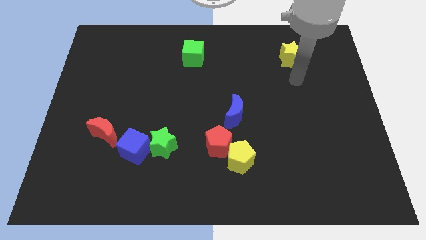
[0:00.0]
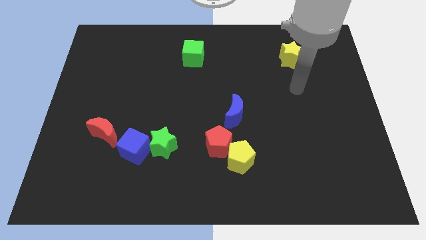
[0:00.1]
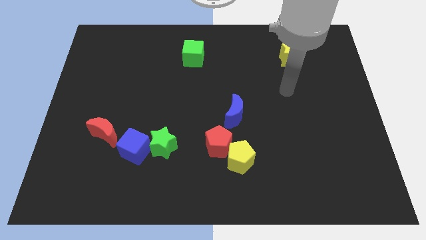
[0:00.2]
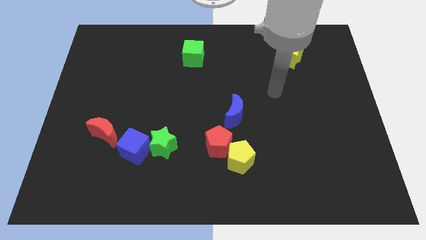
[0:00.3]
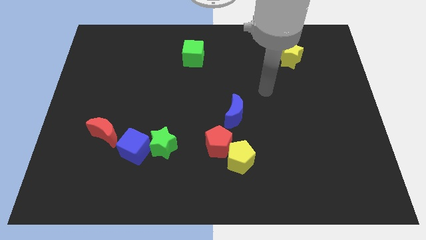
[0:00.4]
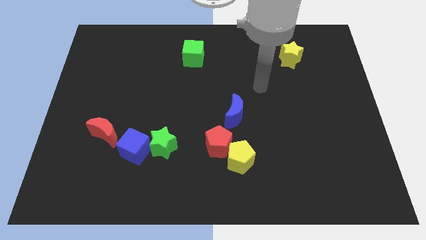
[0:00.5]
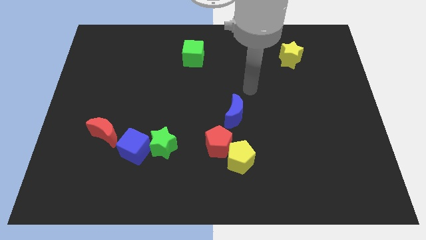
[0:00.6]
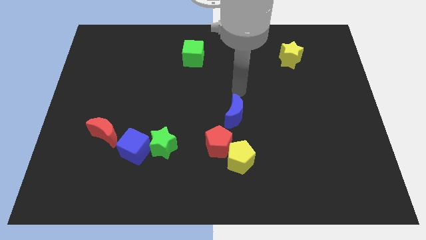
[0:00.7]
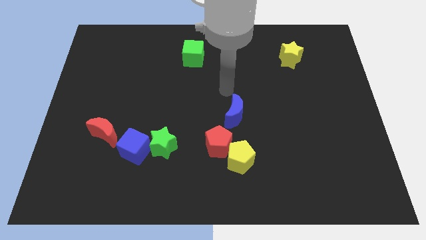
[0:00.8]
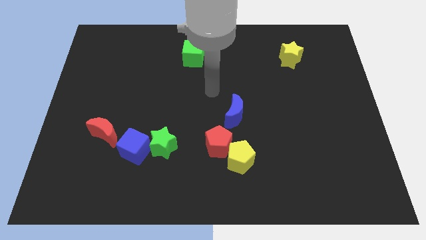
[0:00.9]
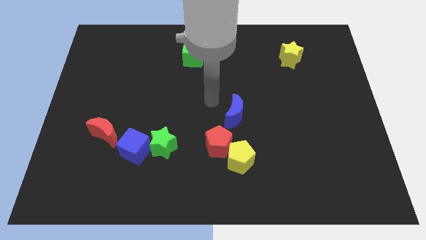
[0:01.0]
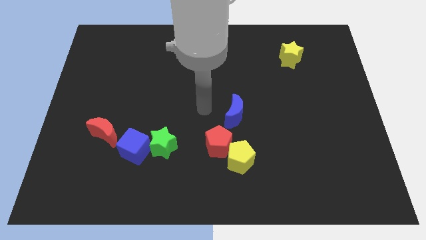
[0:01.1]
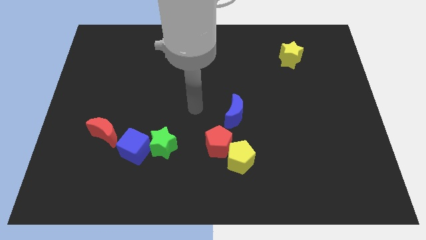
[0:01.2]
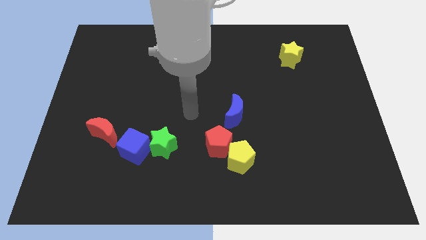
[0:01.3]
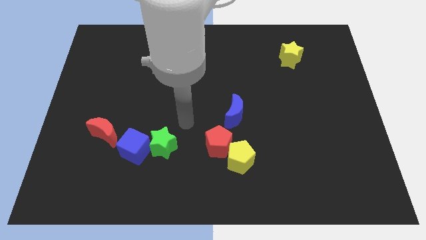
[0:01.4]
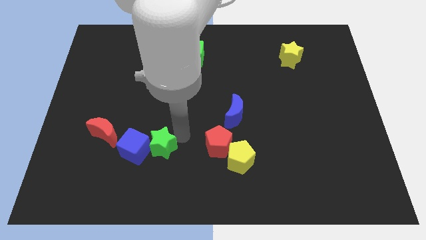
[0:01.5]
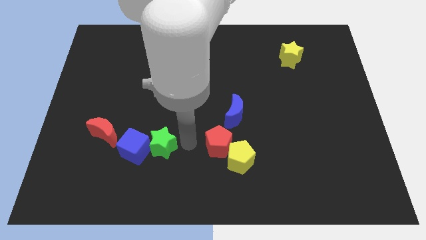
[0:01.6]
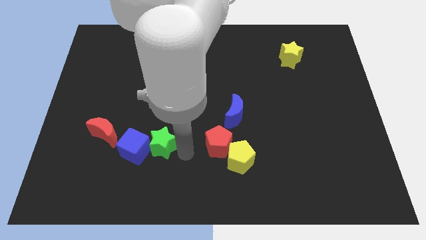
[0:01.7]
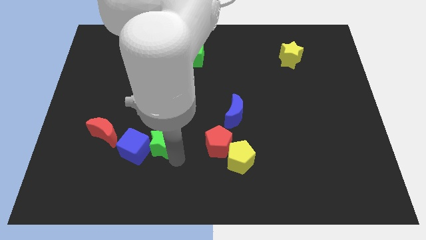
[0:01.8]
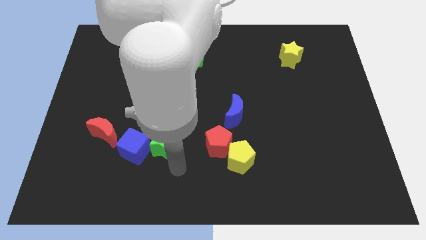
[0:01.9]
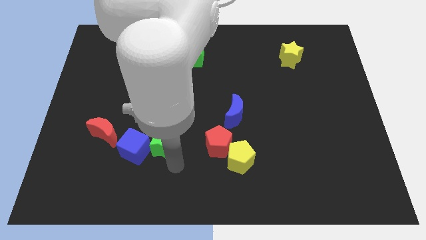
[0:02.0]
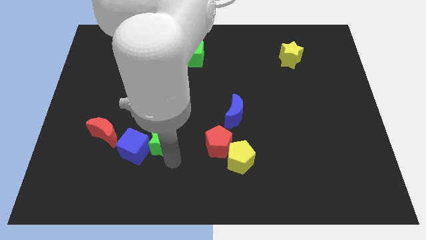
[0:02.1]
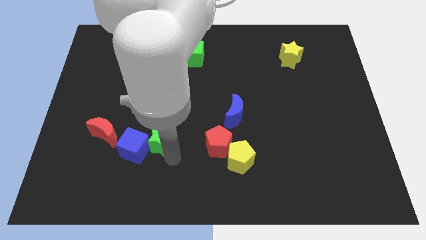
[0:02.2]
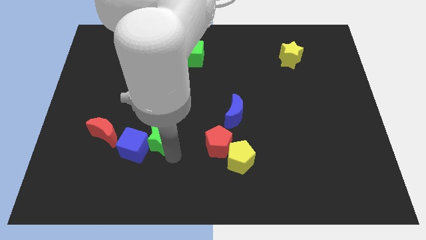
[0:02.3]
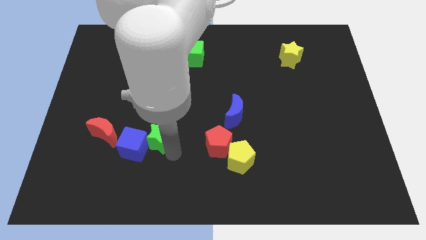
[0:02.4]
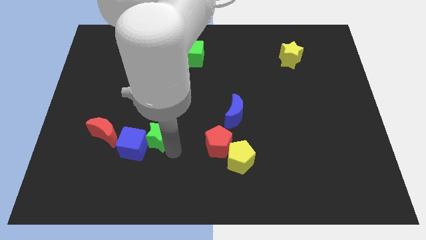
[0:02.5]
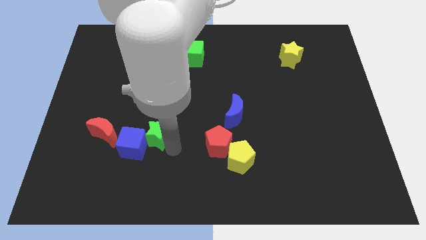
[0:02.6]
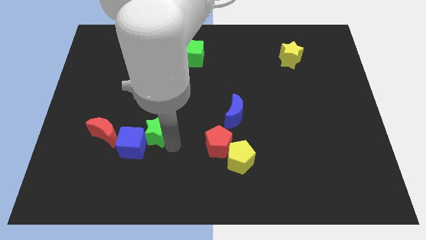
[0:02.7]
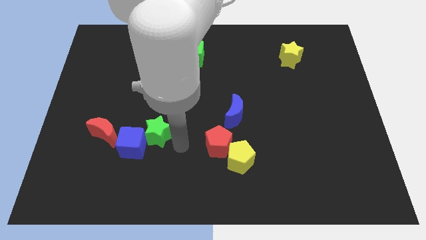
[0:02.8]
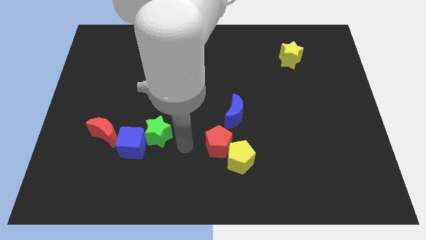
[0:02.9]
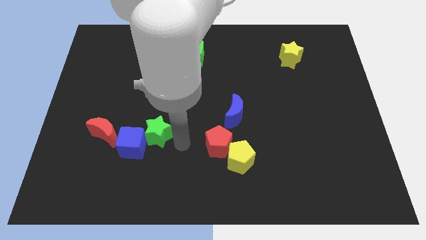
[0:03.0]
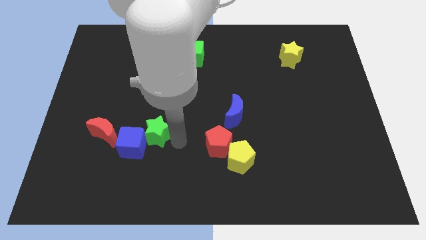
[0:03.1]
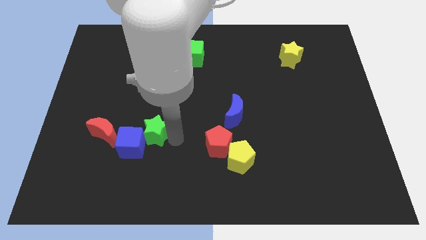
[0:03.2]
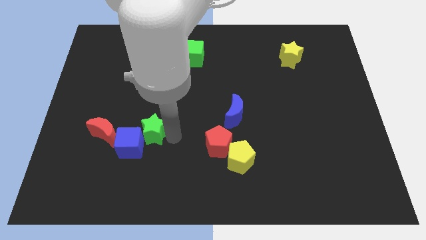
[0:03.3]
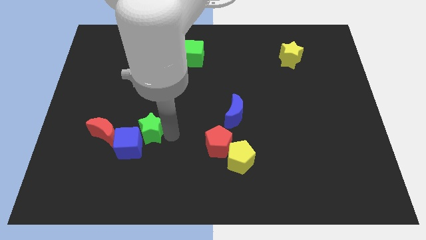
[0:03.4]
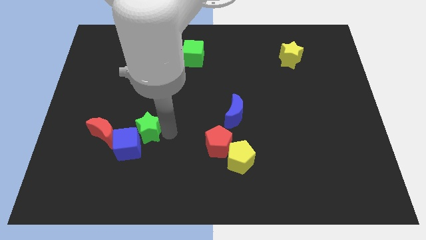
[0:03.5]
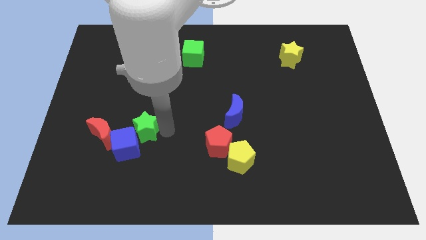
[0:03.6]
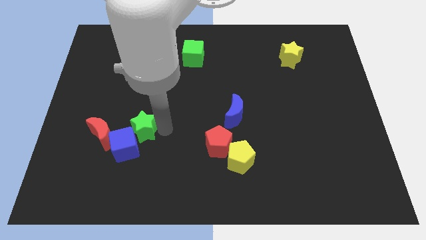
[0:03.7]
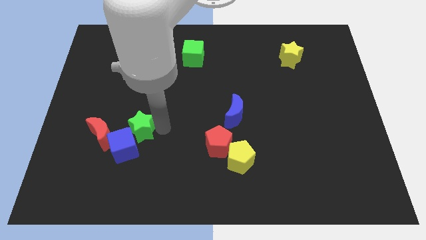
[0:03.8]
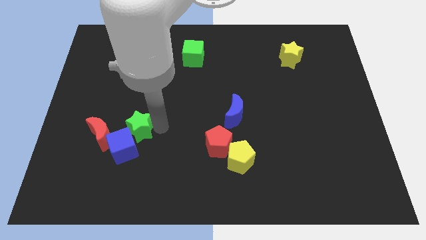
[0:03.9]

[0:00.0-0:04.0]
slightly slide the green star up and left

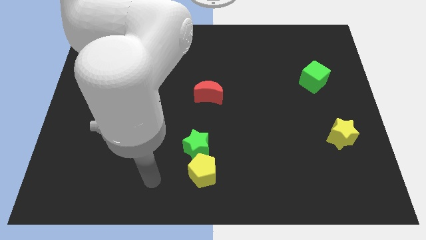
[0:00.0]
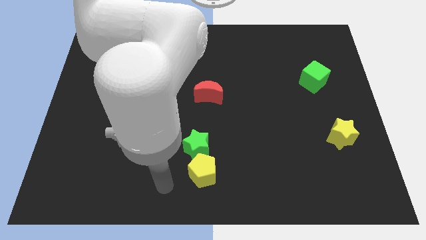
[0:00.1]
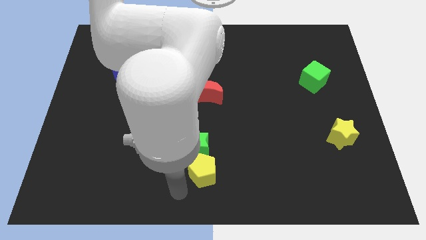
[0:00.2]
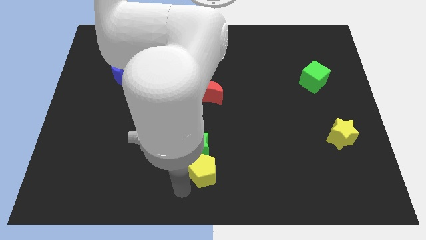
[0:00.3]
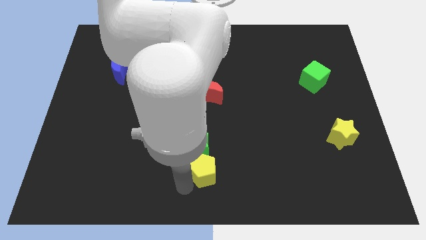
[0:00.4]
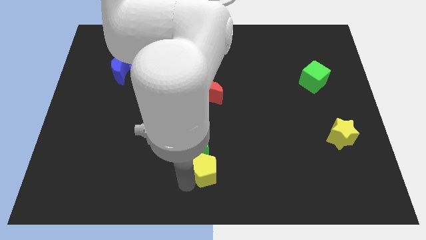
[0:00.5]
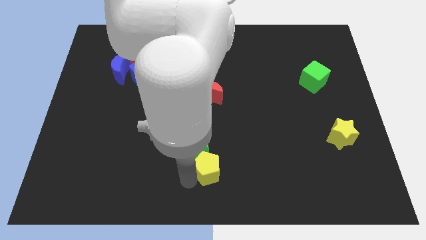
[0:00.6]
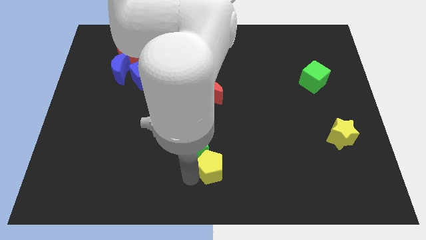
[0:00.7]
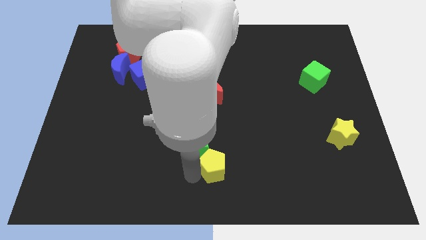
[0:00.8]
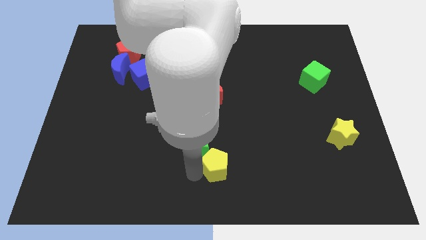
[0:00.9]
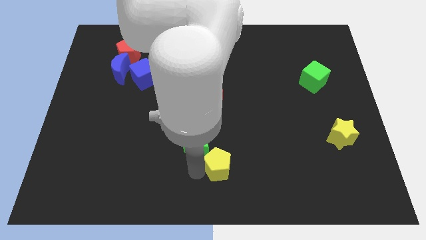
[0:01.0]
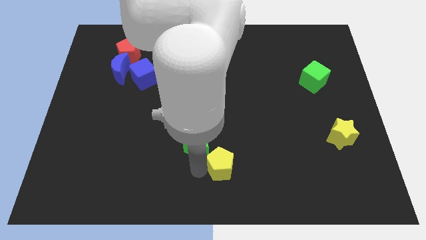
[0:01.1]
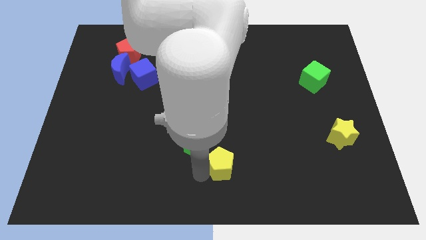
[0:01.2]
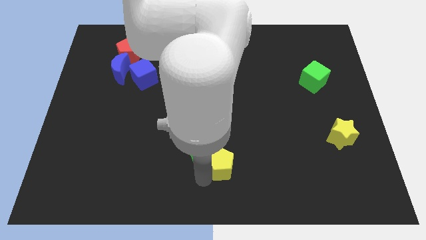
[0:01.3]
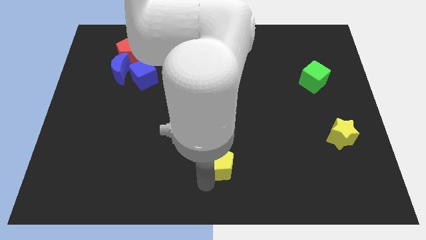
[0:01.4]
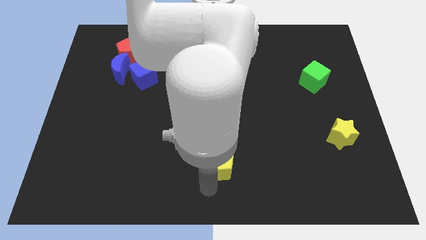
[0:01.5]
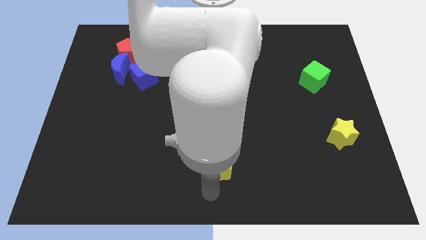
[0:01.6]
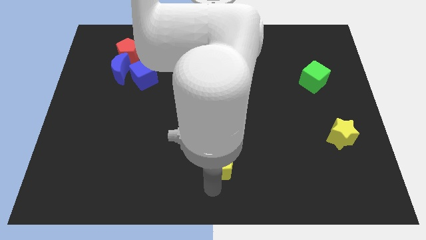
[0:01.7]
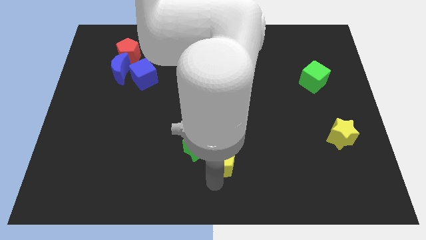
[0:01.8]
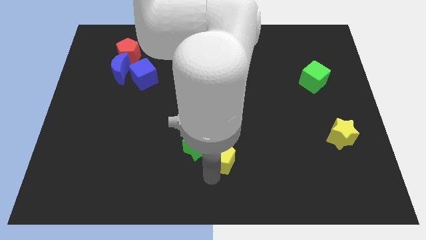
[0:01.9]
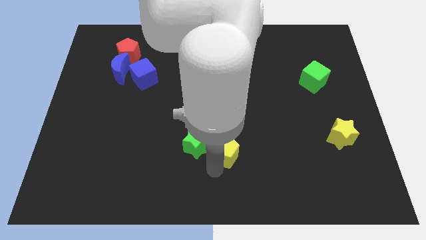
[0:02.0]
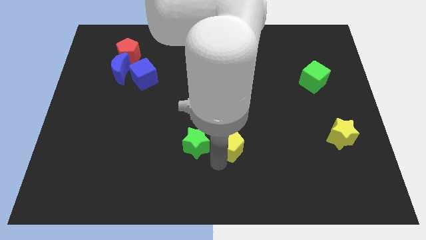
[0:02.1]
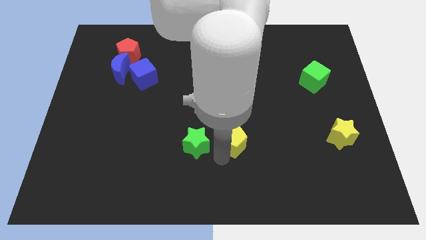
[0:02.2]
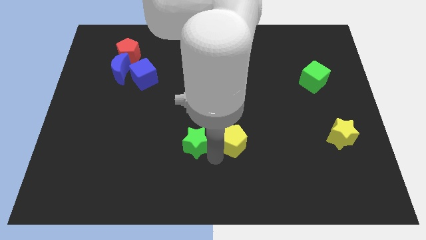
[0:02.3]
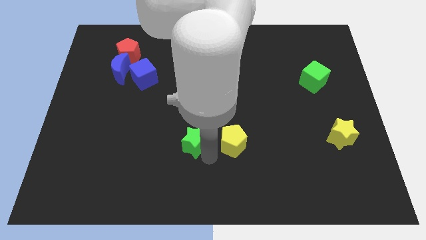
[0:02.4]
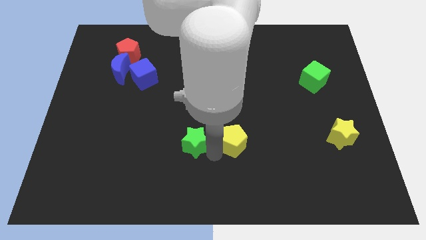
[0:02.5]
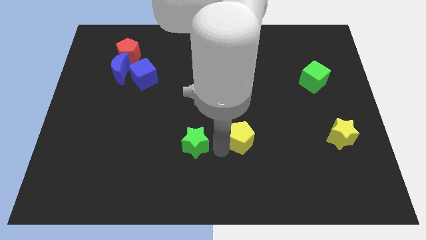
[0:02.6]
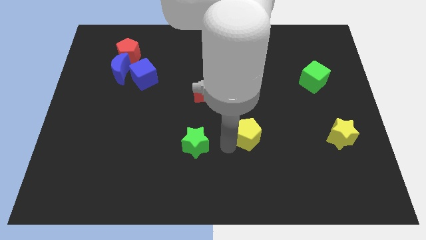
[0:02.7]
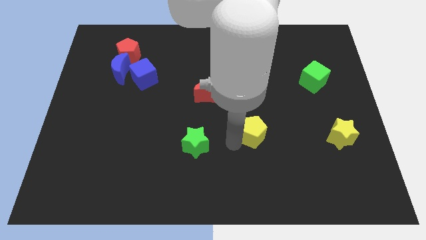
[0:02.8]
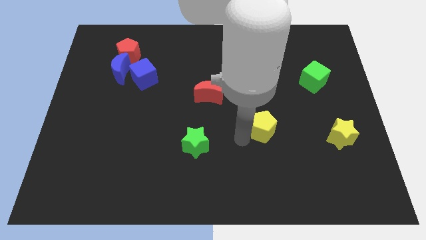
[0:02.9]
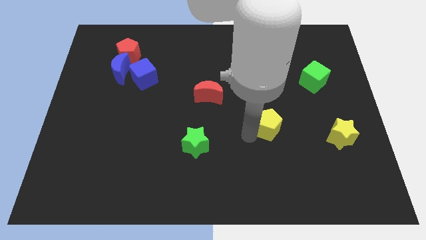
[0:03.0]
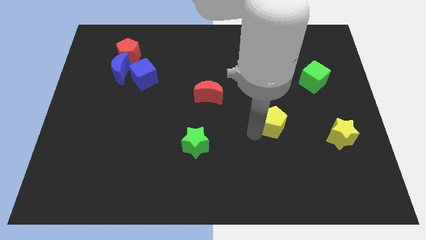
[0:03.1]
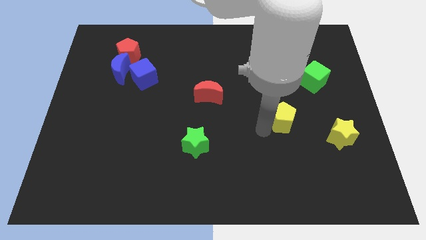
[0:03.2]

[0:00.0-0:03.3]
slide the yellow pentagon up and right

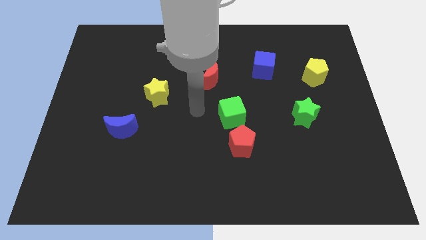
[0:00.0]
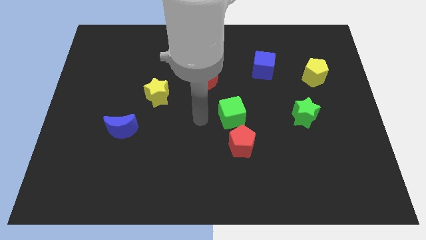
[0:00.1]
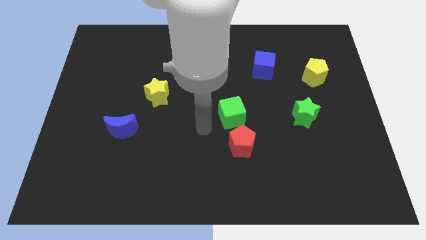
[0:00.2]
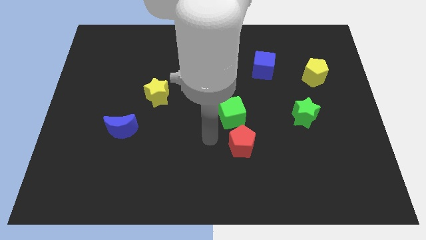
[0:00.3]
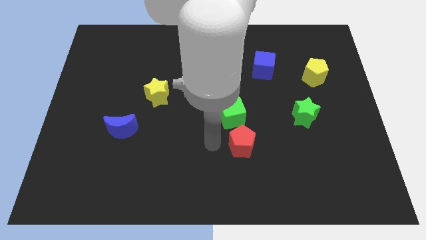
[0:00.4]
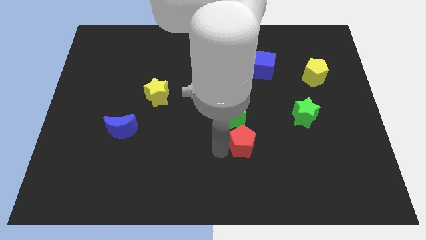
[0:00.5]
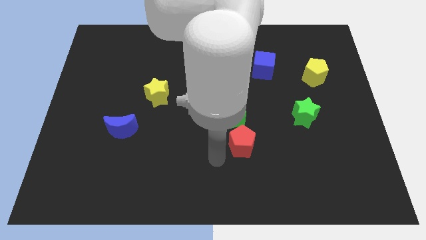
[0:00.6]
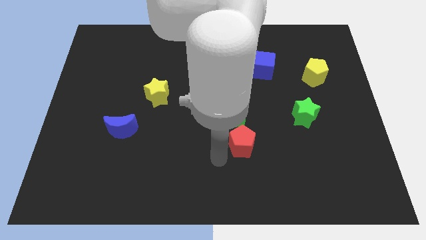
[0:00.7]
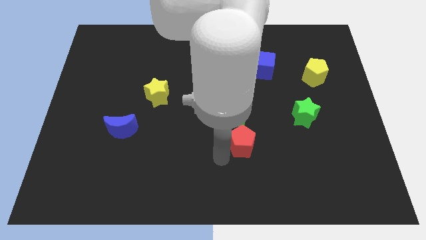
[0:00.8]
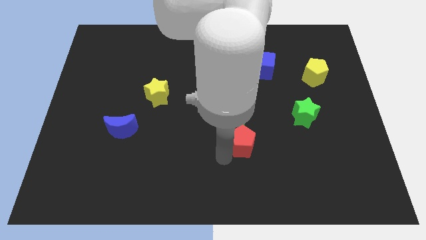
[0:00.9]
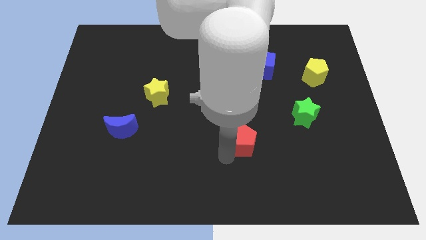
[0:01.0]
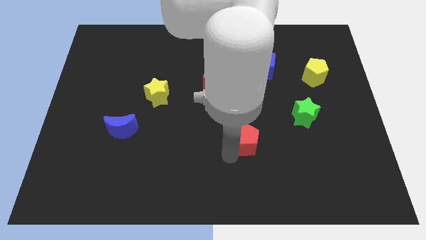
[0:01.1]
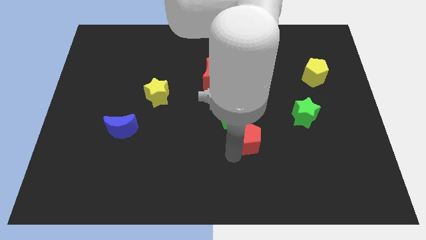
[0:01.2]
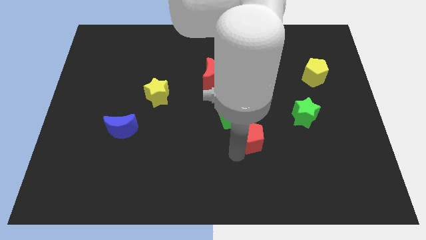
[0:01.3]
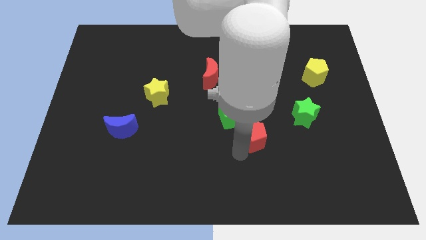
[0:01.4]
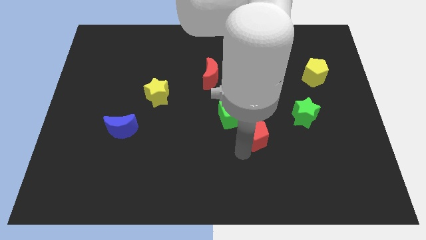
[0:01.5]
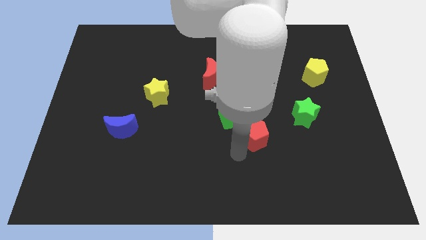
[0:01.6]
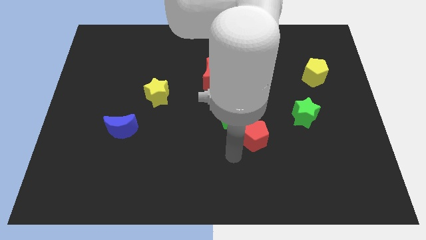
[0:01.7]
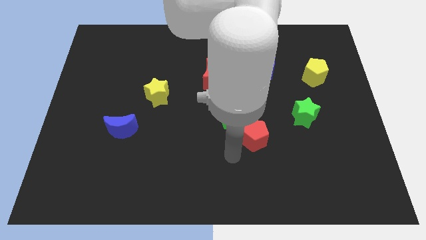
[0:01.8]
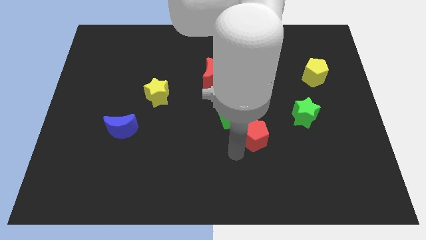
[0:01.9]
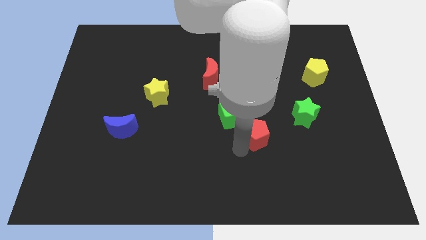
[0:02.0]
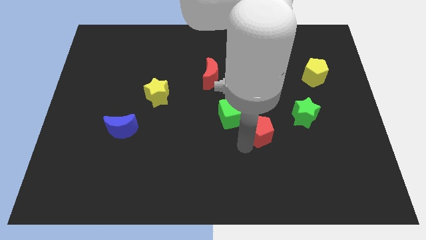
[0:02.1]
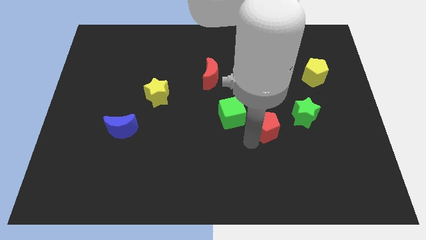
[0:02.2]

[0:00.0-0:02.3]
slightly move the red pentagon upwards and to the right diagonally
